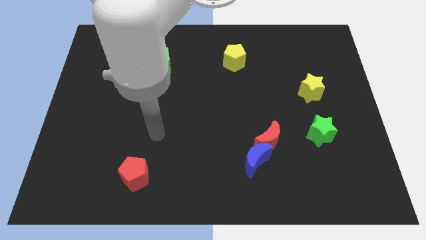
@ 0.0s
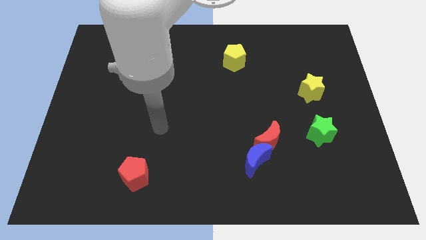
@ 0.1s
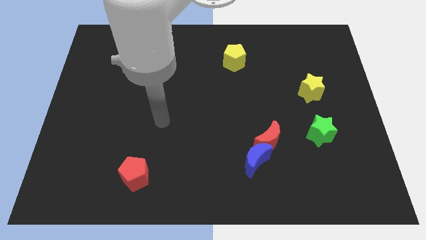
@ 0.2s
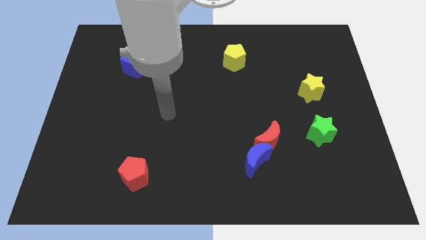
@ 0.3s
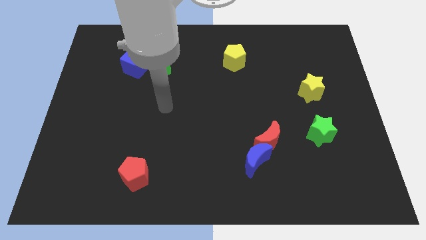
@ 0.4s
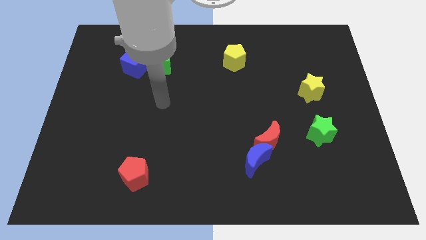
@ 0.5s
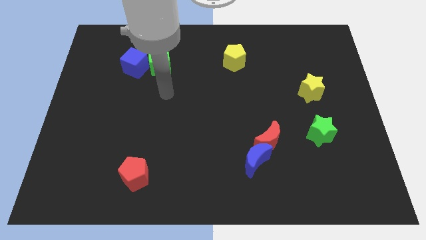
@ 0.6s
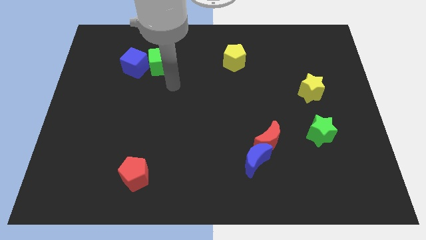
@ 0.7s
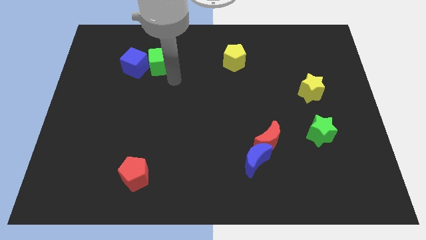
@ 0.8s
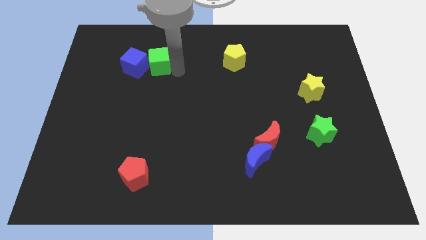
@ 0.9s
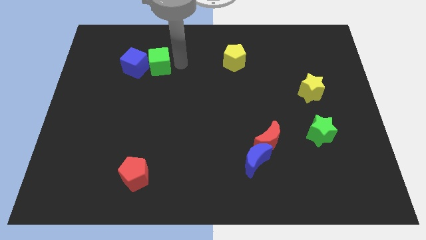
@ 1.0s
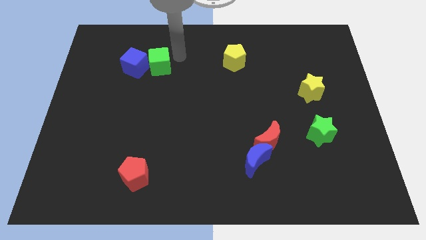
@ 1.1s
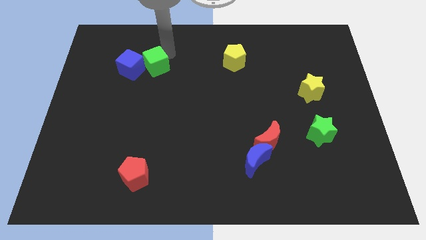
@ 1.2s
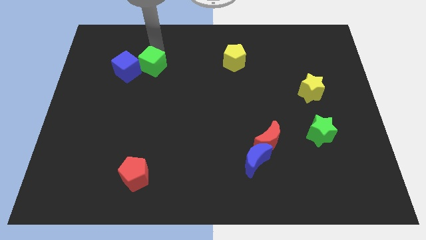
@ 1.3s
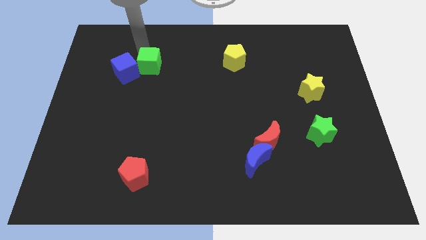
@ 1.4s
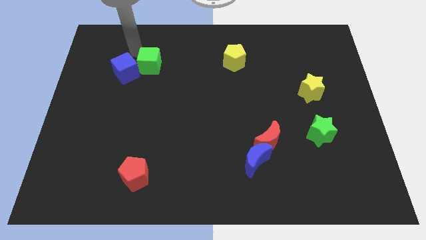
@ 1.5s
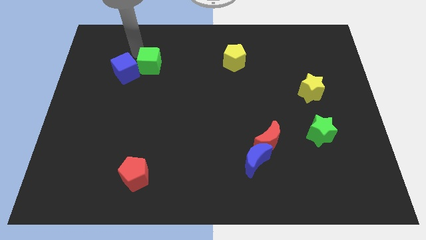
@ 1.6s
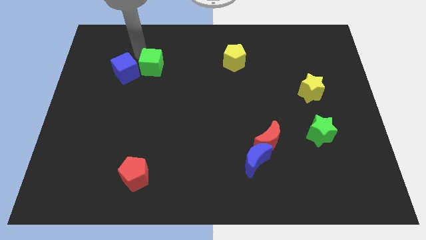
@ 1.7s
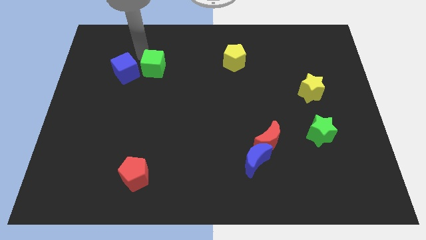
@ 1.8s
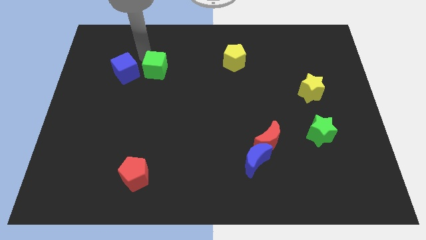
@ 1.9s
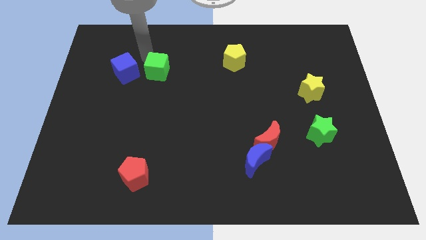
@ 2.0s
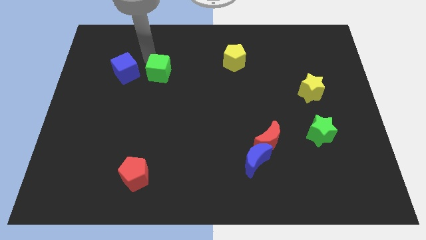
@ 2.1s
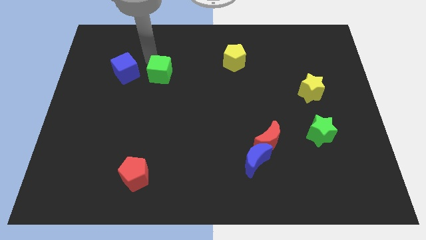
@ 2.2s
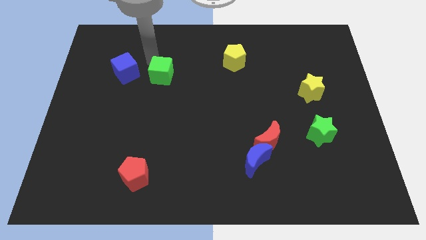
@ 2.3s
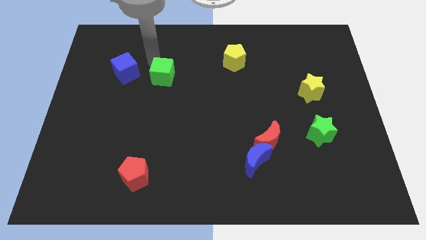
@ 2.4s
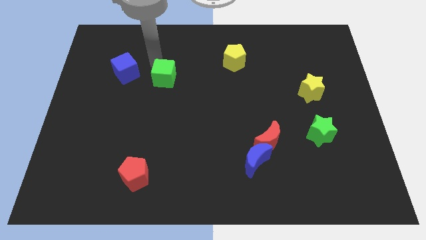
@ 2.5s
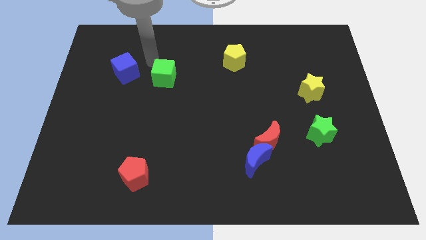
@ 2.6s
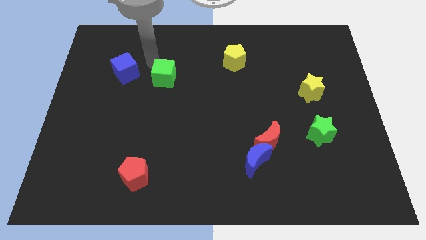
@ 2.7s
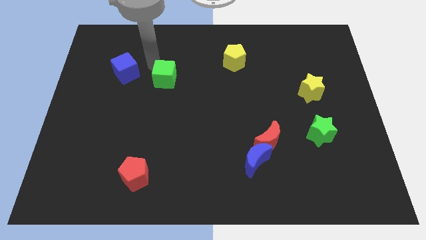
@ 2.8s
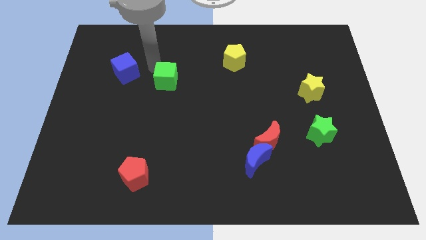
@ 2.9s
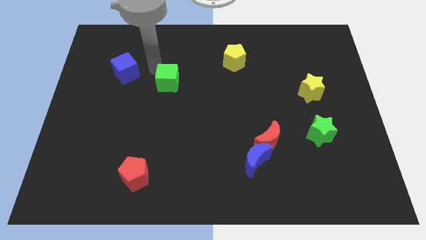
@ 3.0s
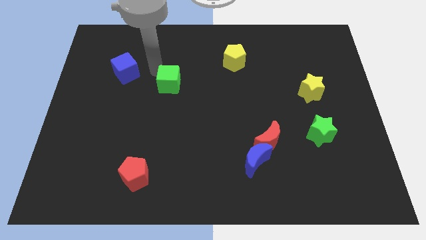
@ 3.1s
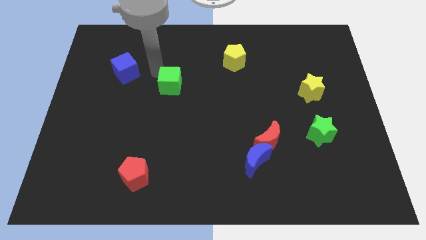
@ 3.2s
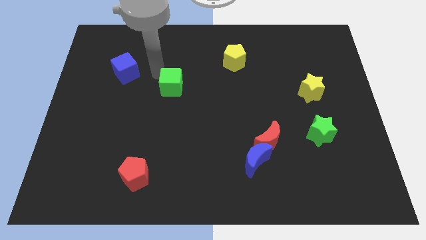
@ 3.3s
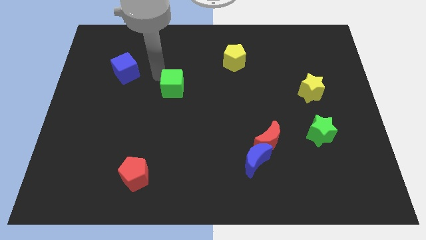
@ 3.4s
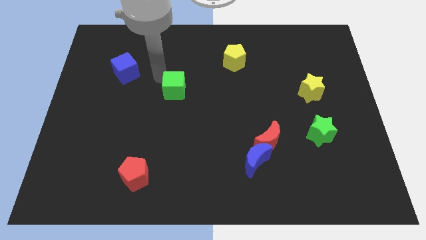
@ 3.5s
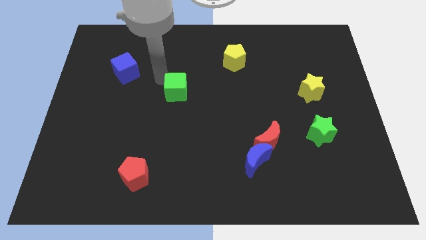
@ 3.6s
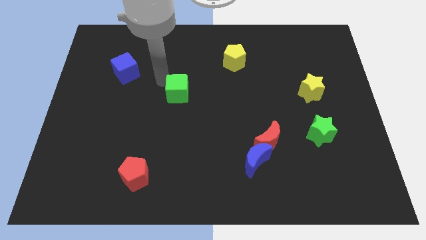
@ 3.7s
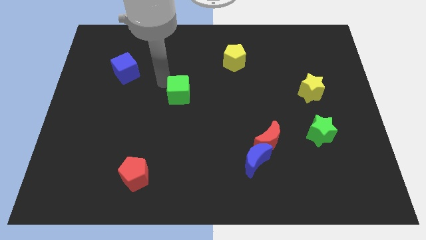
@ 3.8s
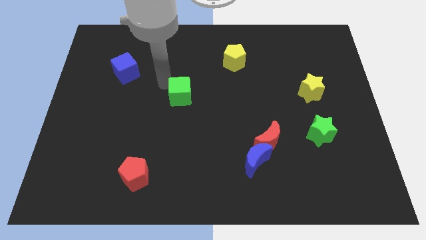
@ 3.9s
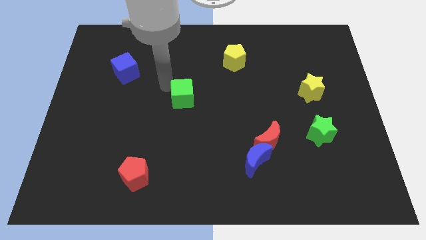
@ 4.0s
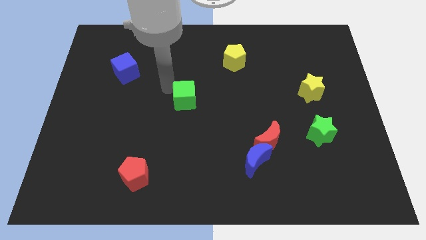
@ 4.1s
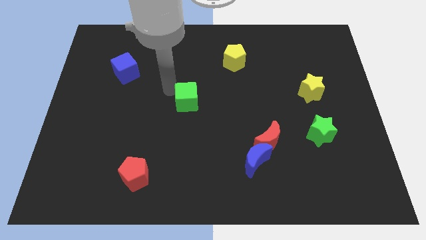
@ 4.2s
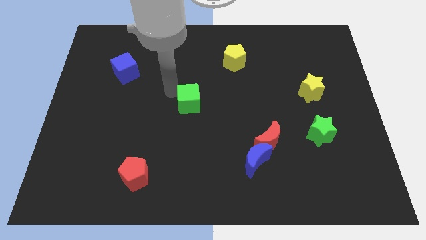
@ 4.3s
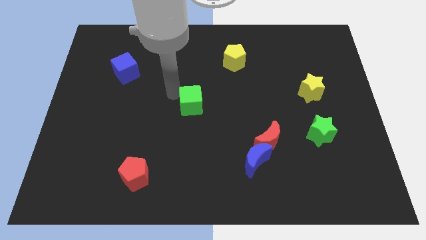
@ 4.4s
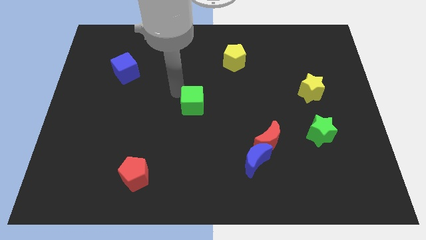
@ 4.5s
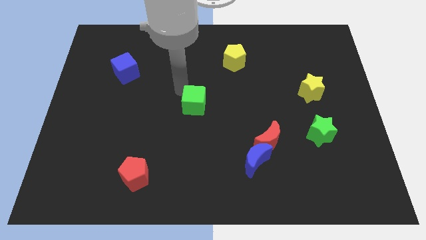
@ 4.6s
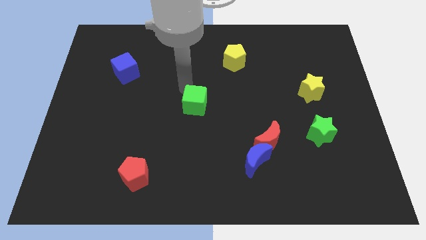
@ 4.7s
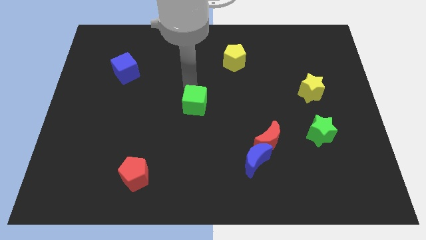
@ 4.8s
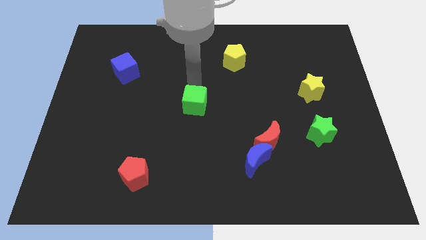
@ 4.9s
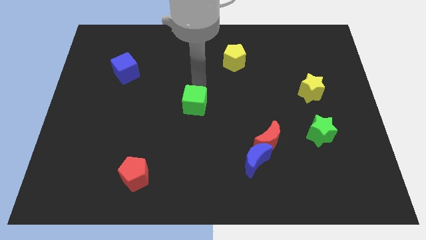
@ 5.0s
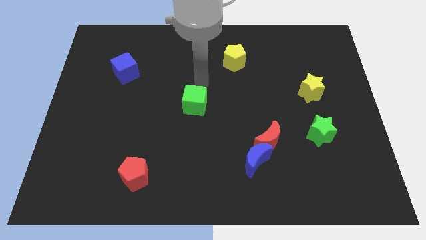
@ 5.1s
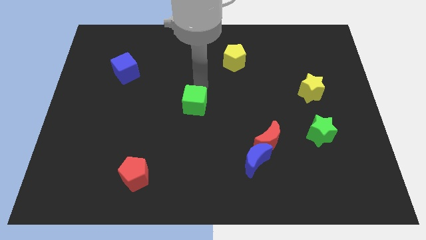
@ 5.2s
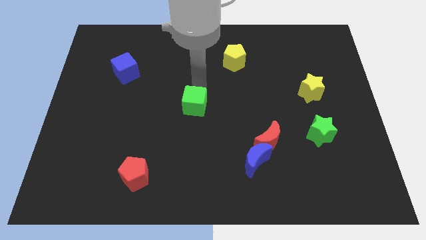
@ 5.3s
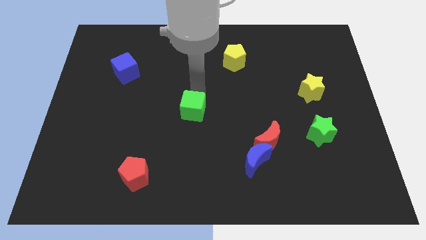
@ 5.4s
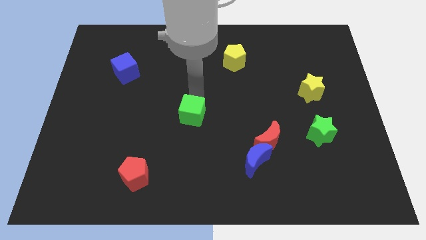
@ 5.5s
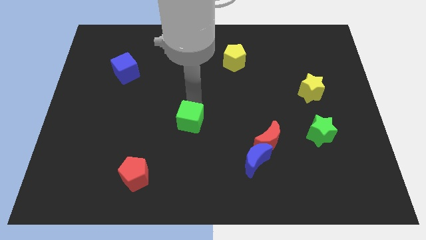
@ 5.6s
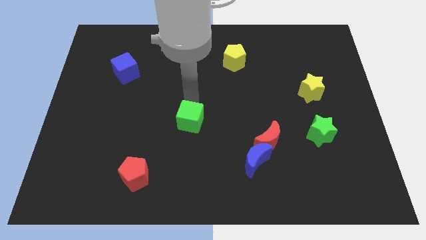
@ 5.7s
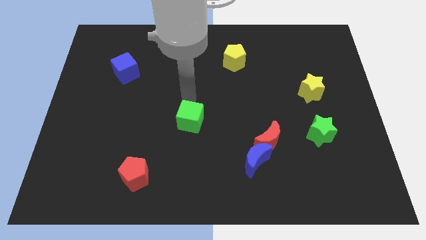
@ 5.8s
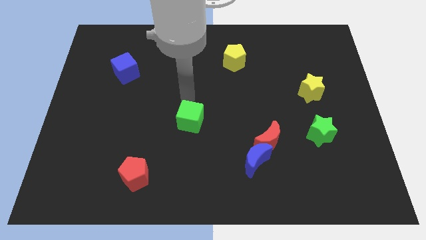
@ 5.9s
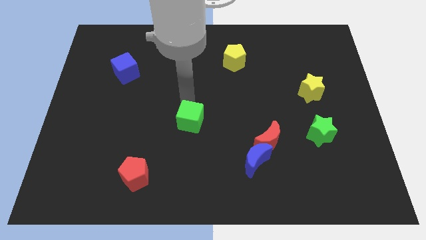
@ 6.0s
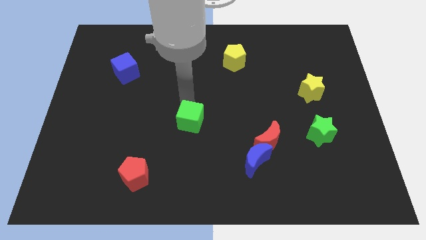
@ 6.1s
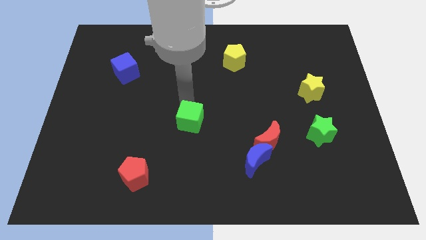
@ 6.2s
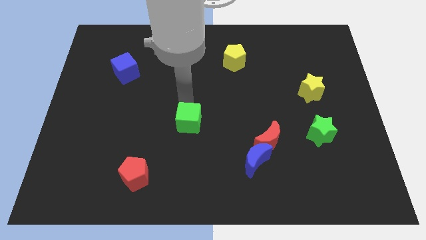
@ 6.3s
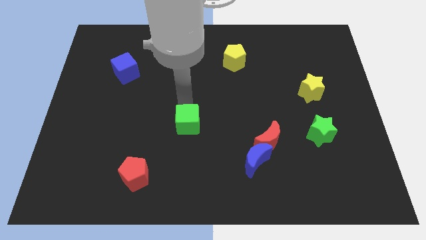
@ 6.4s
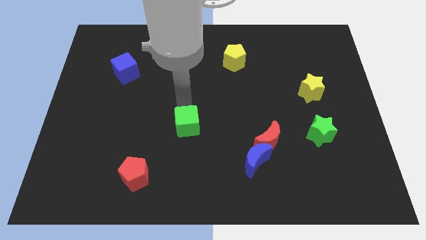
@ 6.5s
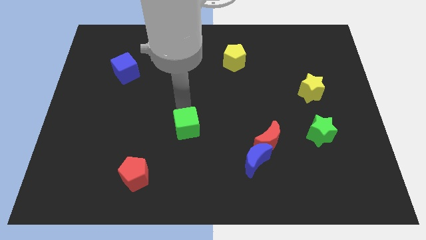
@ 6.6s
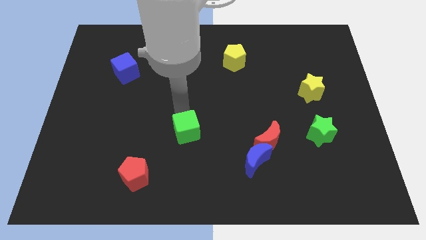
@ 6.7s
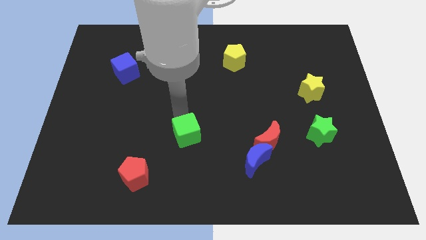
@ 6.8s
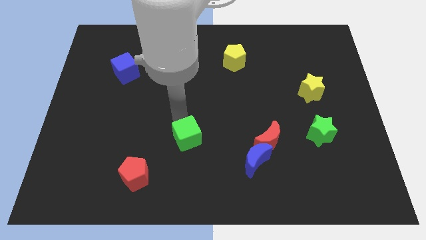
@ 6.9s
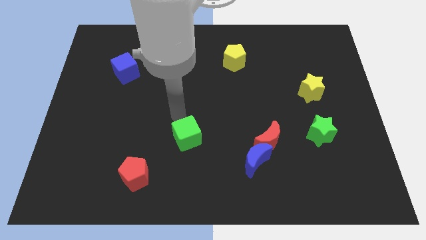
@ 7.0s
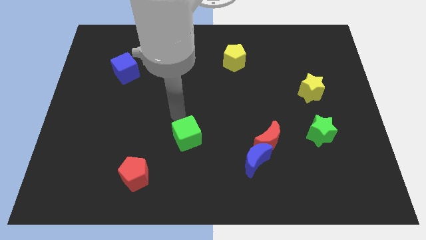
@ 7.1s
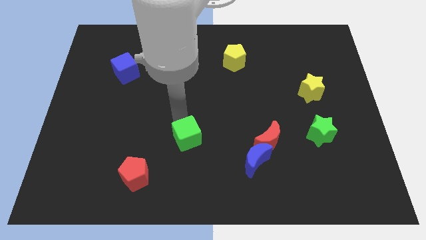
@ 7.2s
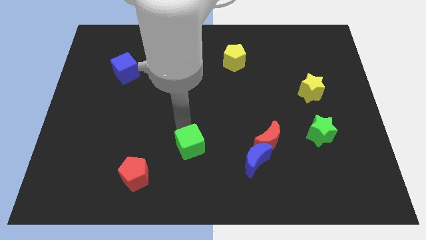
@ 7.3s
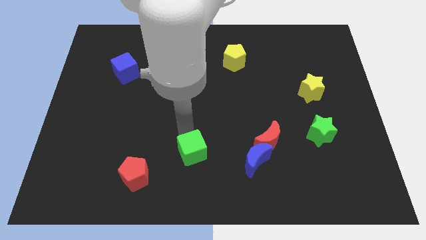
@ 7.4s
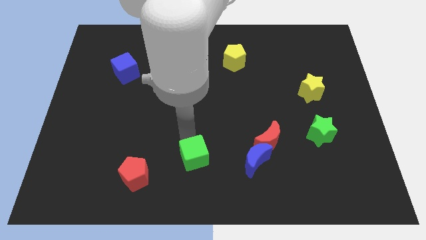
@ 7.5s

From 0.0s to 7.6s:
move the green cube to the bottom
